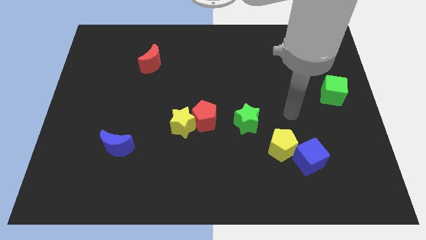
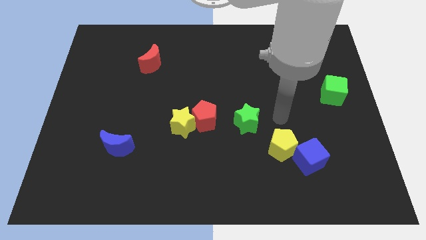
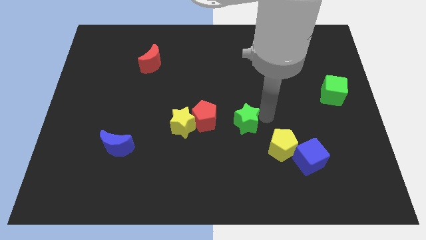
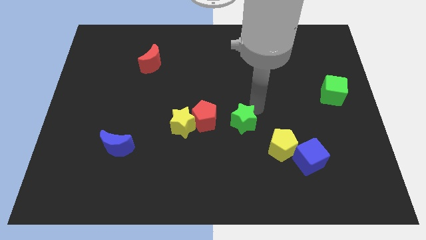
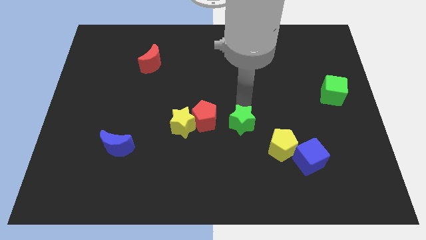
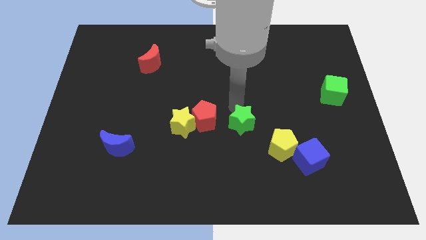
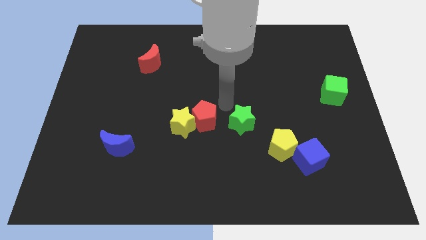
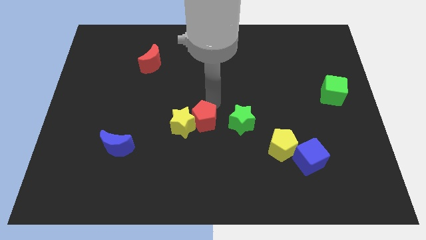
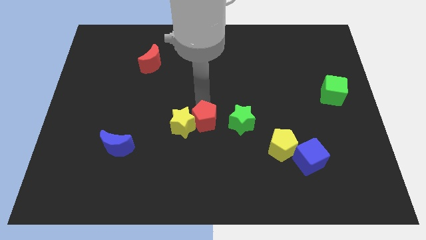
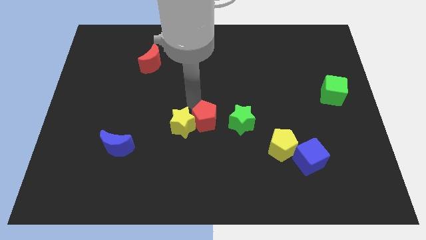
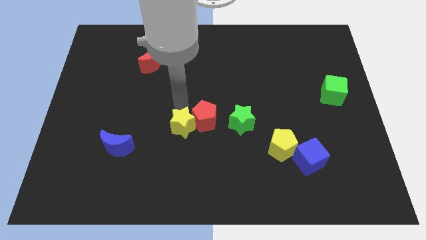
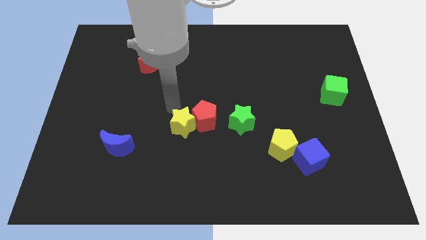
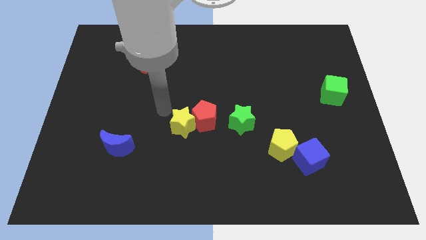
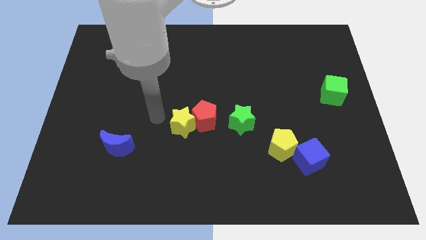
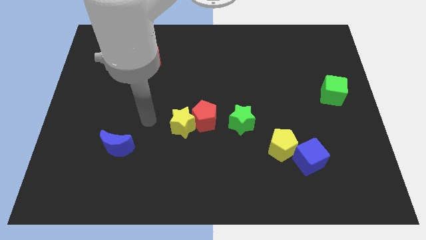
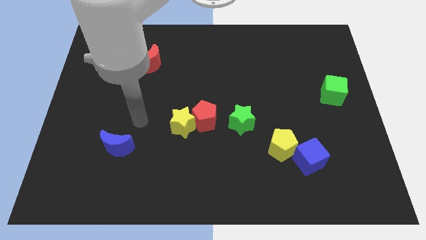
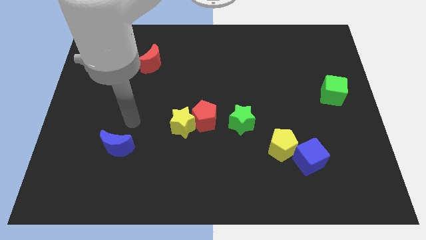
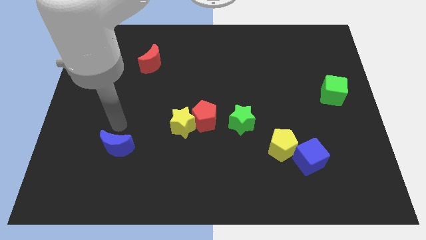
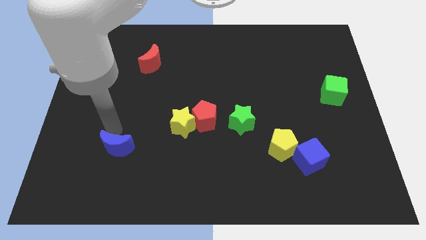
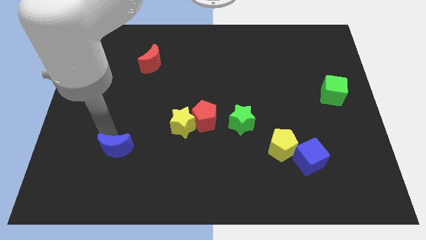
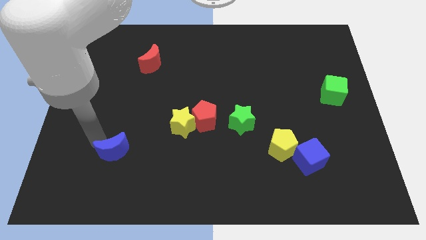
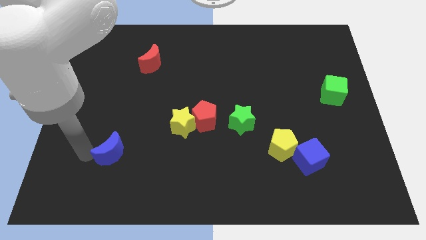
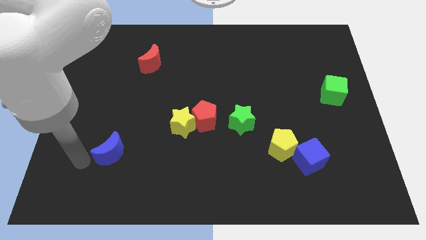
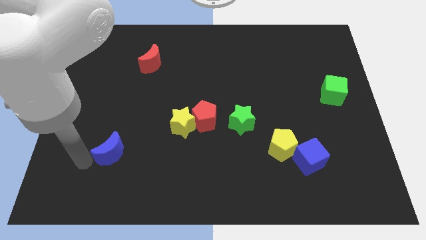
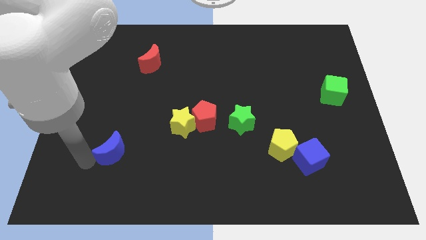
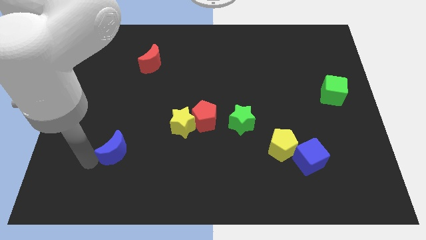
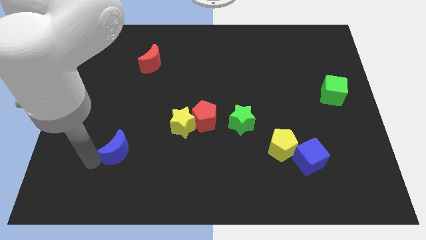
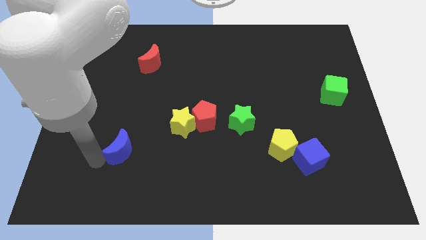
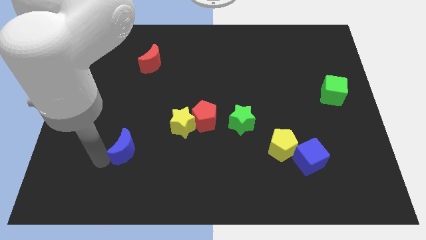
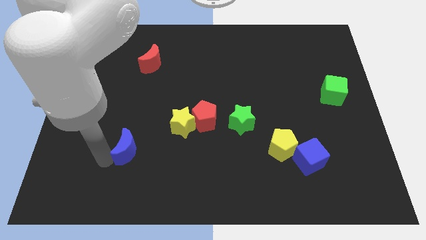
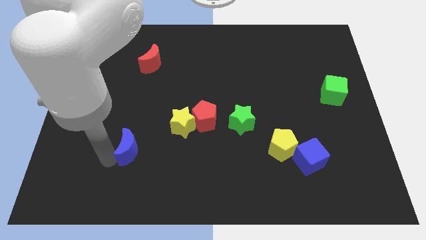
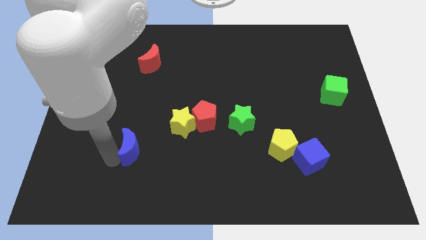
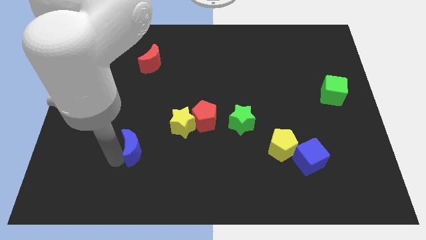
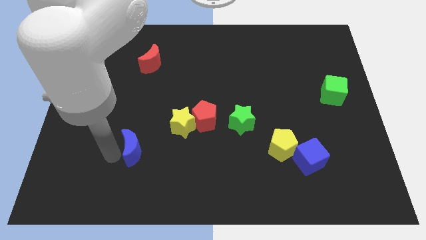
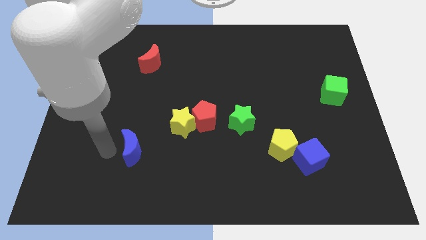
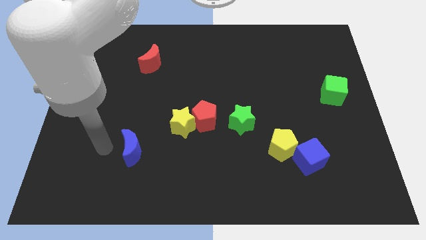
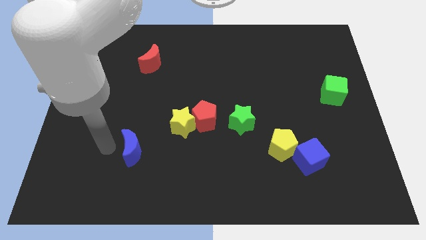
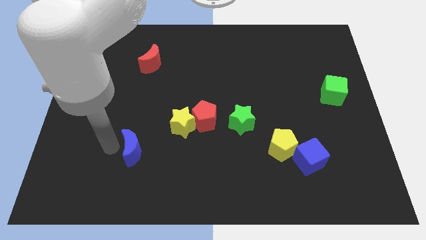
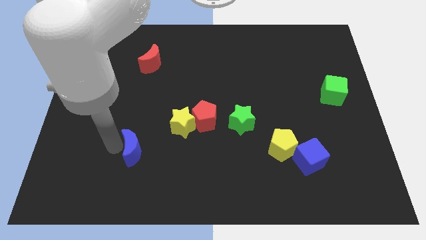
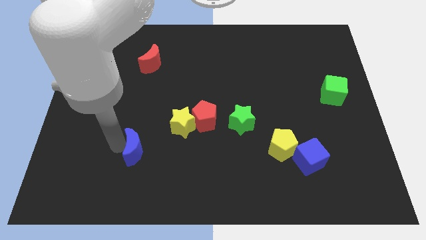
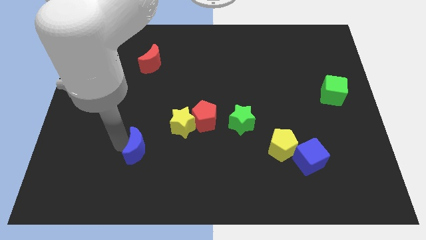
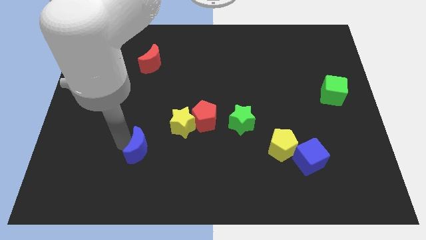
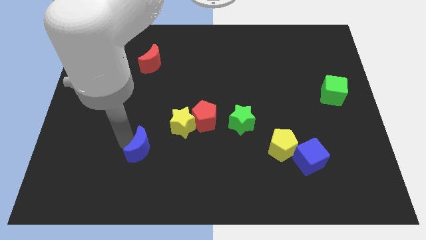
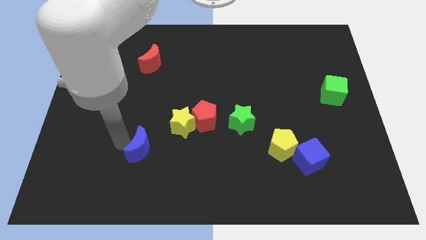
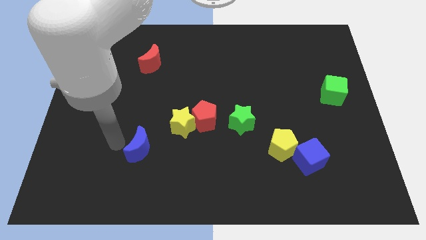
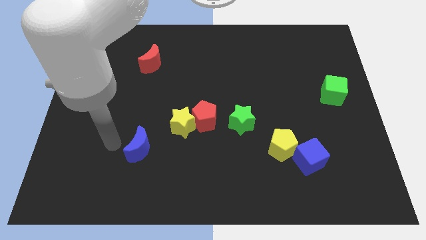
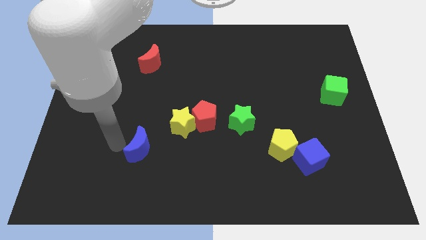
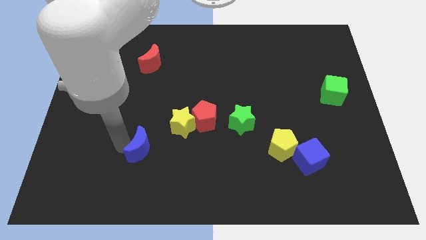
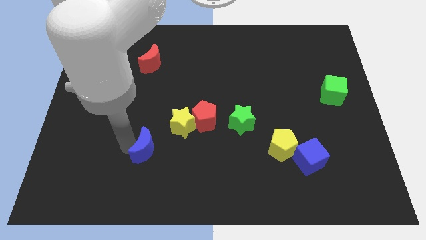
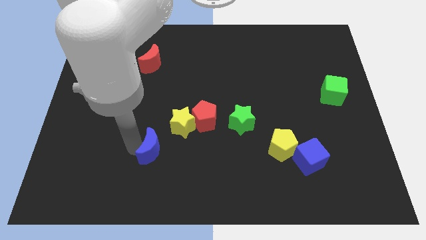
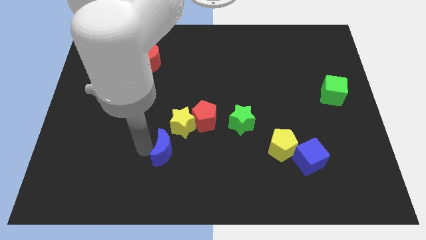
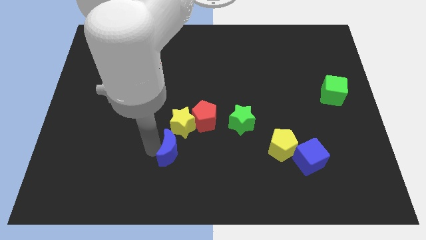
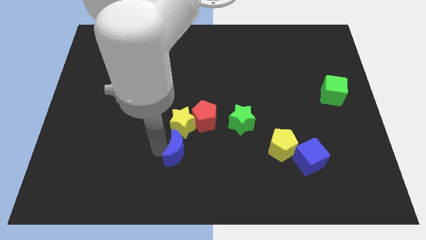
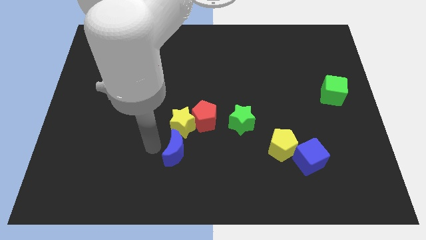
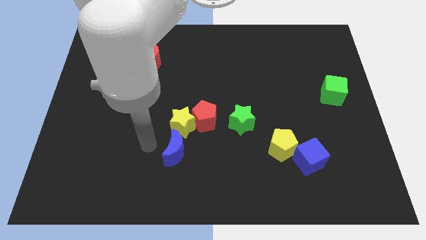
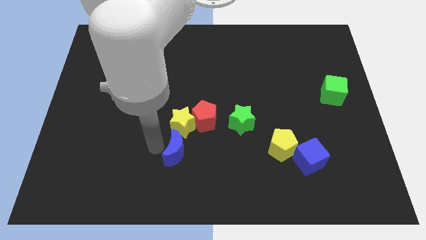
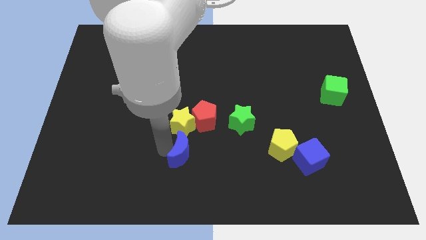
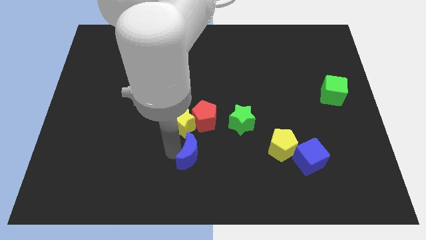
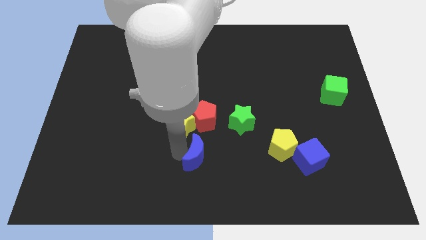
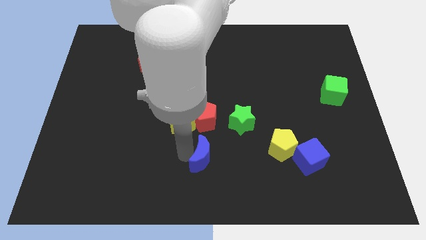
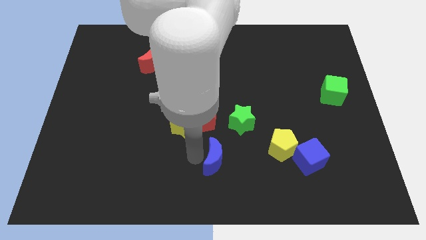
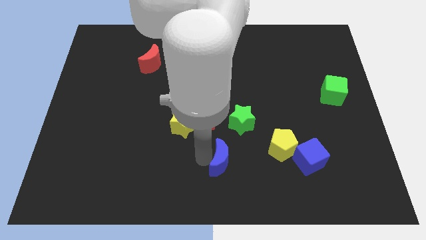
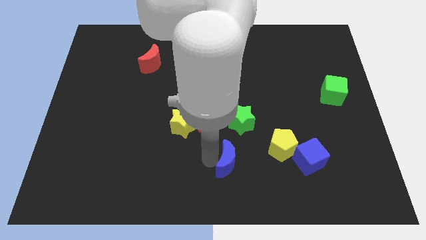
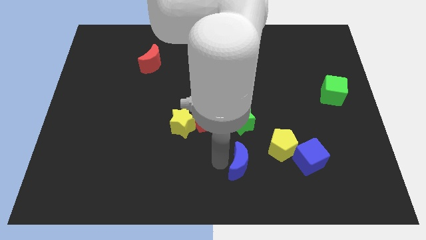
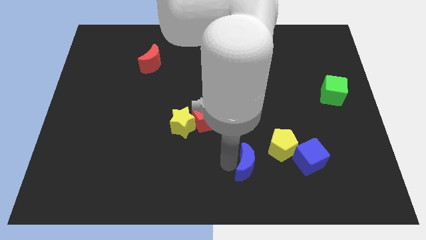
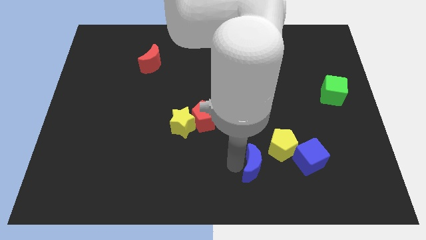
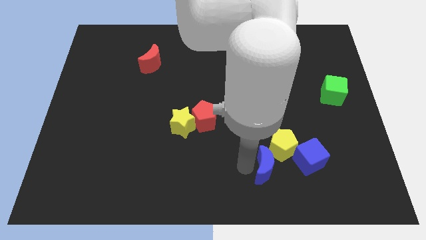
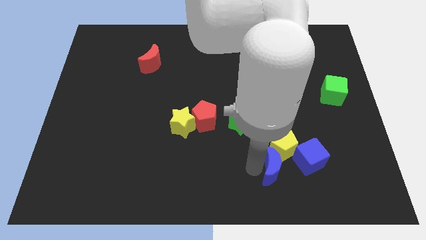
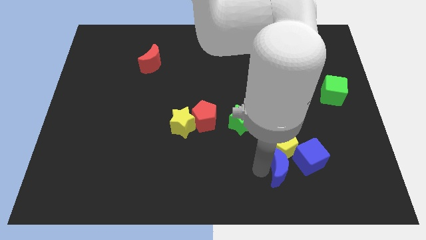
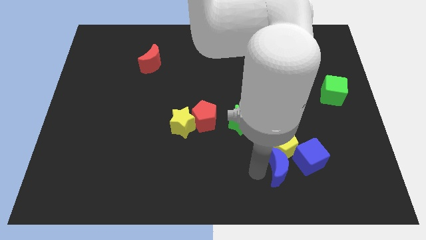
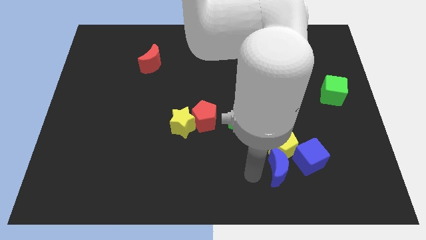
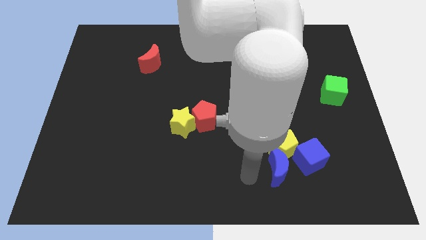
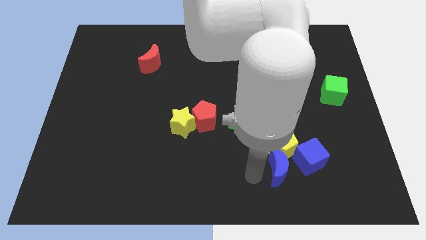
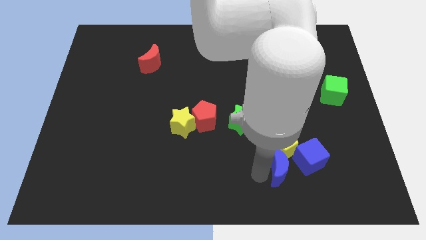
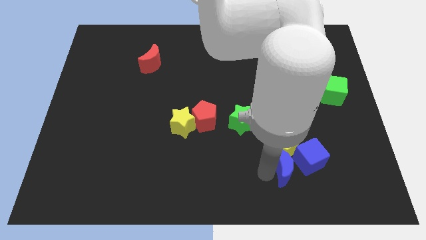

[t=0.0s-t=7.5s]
move the blue moon to the blue cube
